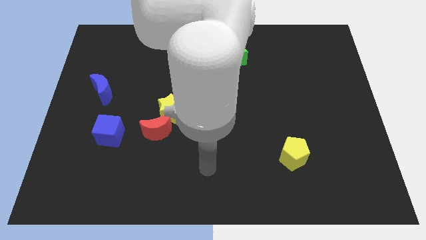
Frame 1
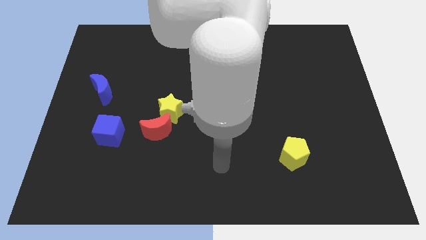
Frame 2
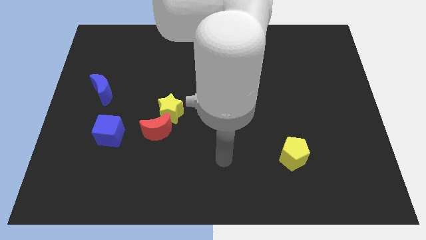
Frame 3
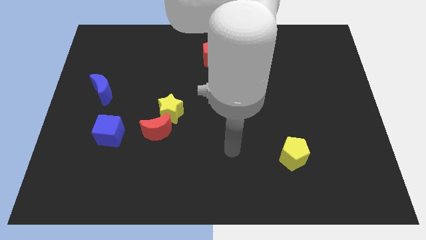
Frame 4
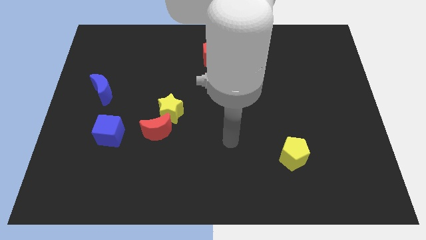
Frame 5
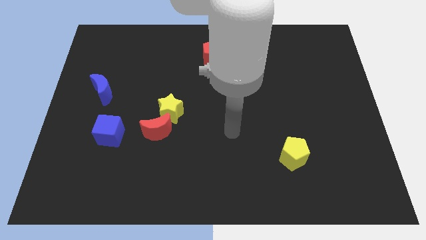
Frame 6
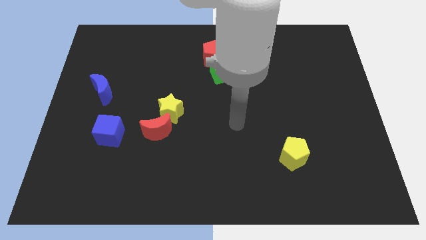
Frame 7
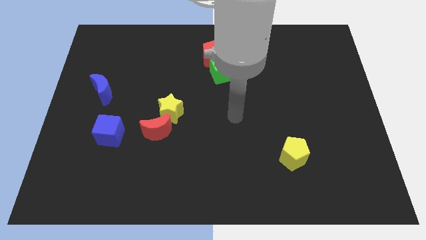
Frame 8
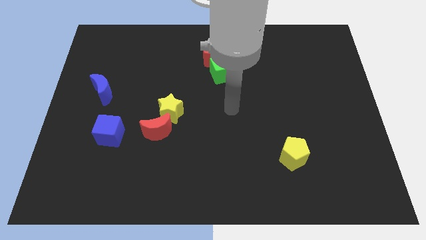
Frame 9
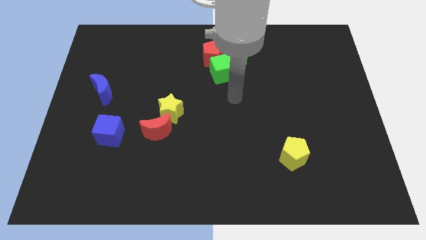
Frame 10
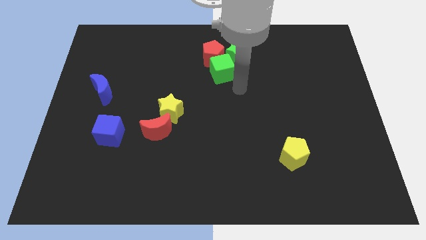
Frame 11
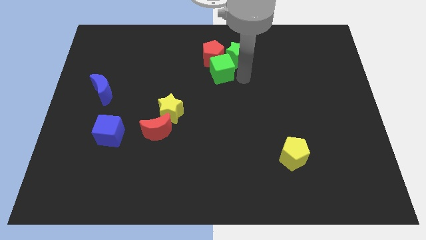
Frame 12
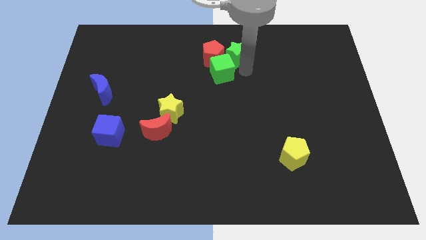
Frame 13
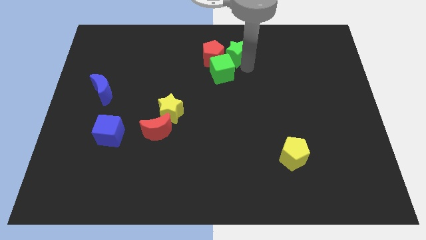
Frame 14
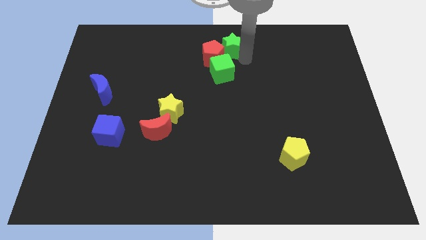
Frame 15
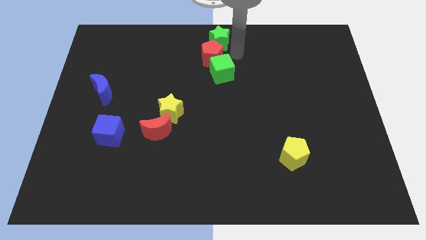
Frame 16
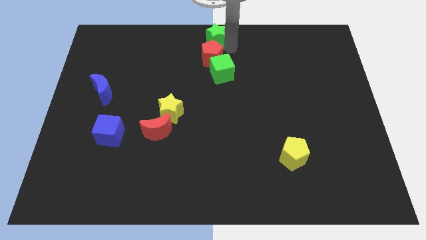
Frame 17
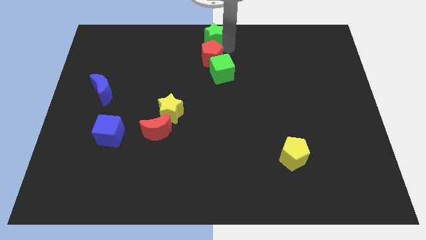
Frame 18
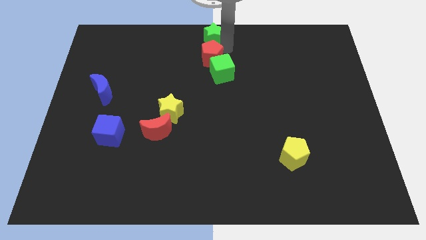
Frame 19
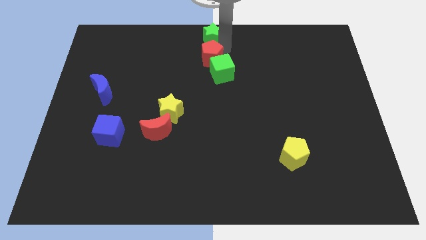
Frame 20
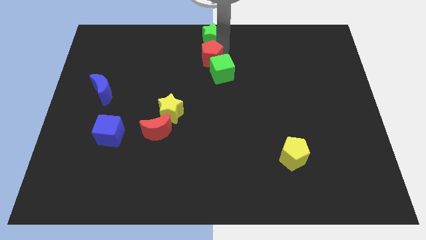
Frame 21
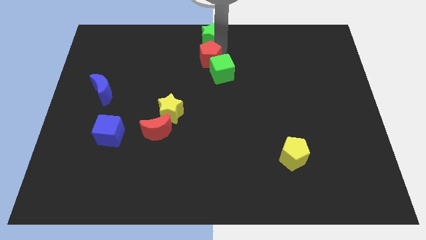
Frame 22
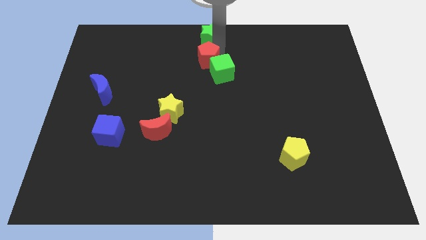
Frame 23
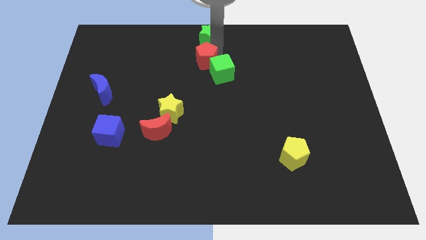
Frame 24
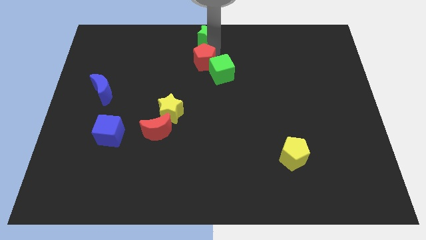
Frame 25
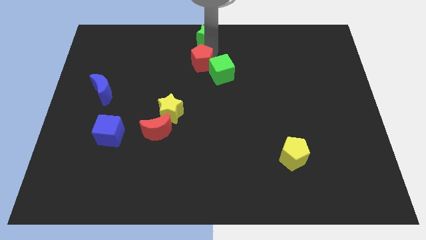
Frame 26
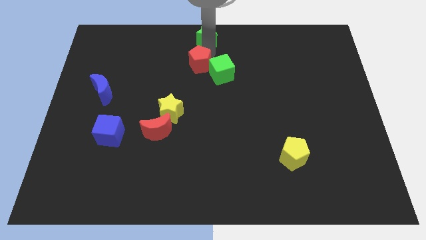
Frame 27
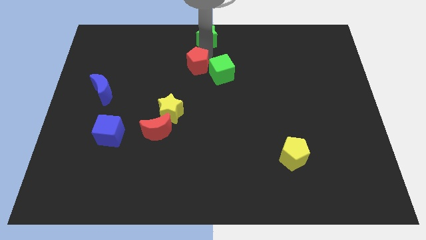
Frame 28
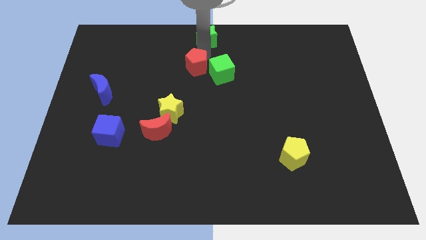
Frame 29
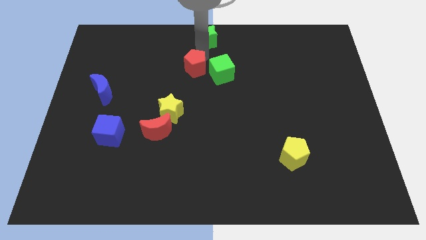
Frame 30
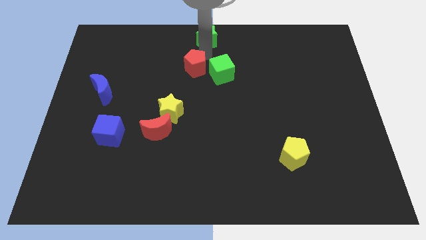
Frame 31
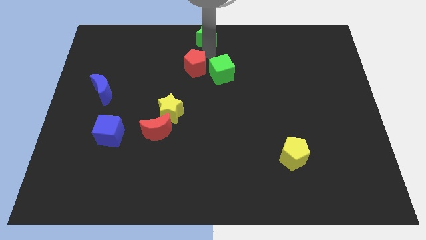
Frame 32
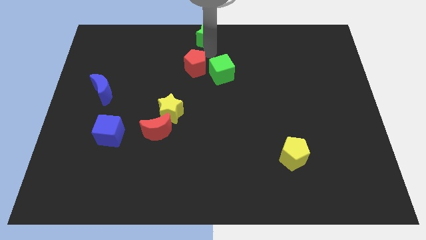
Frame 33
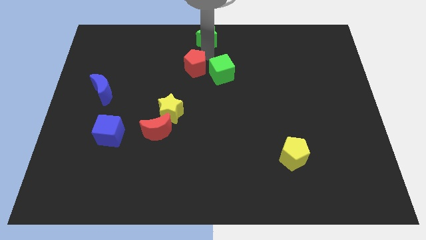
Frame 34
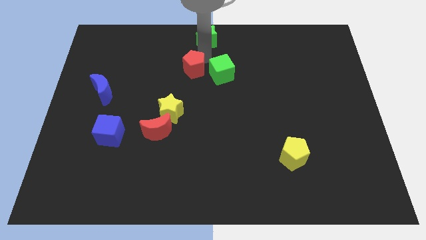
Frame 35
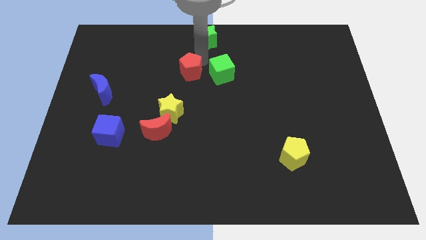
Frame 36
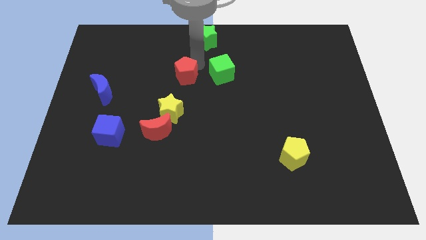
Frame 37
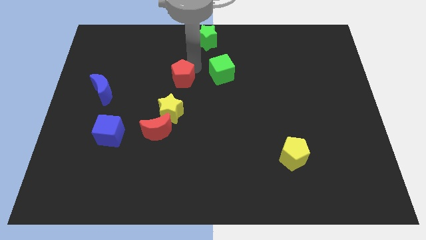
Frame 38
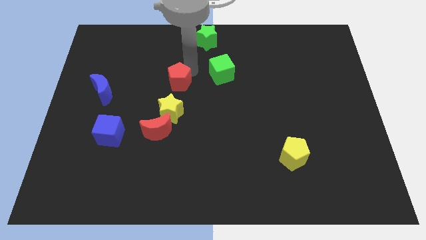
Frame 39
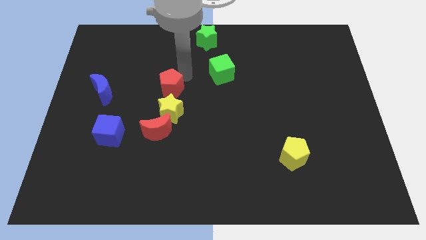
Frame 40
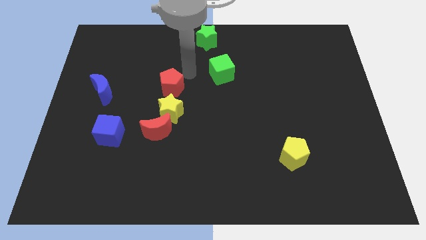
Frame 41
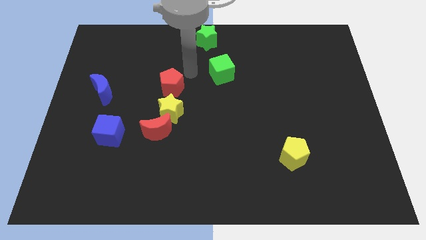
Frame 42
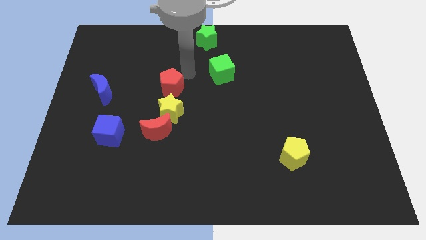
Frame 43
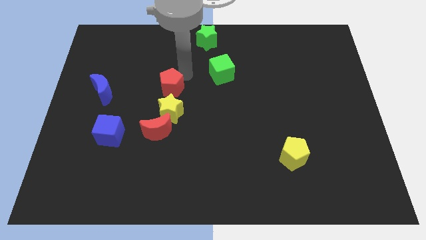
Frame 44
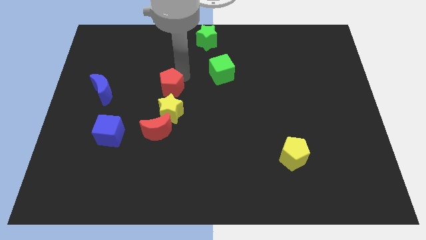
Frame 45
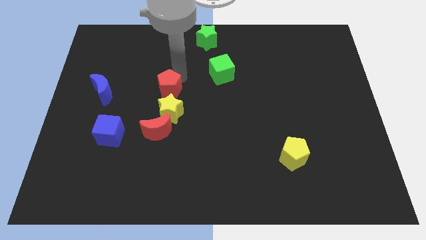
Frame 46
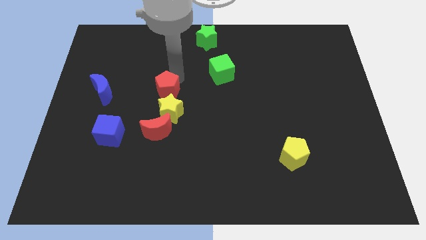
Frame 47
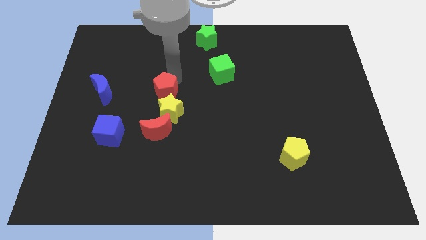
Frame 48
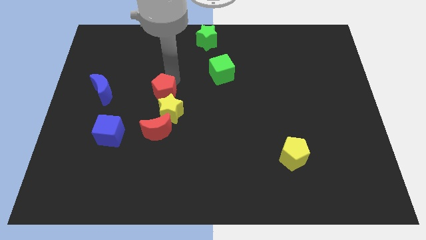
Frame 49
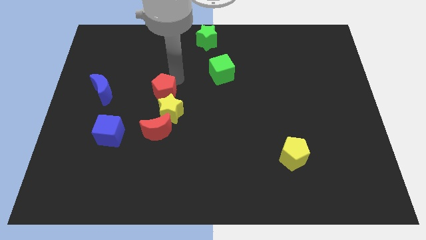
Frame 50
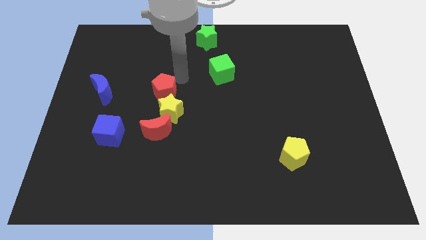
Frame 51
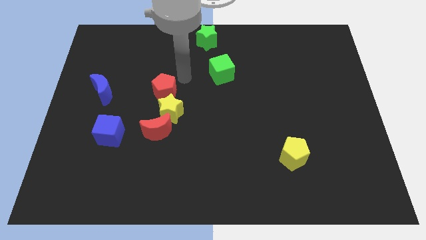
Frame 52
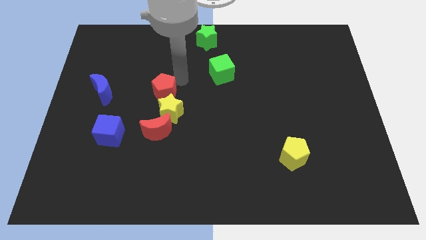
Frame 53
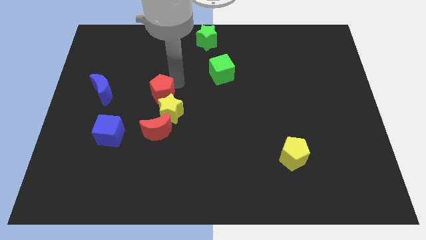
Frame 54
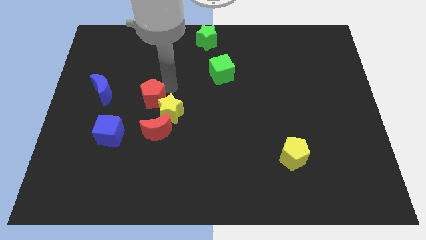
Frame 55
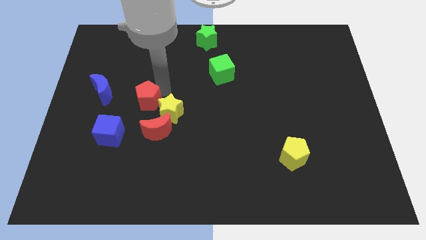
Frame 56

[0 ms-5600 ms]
push the red pentagon to the top left side of the red moon

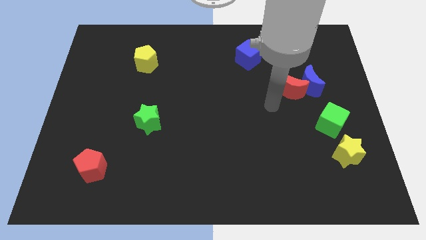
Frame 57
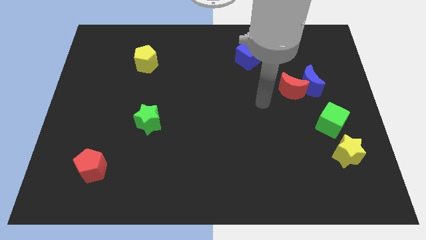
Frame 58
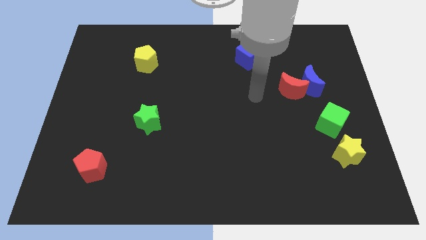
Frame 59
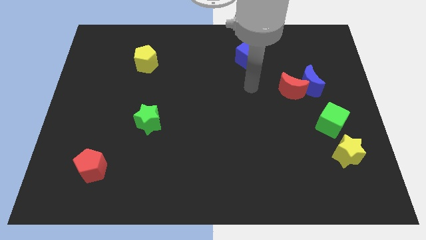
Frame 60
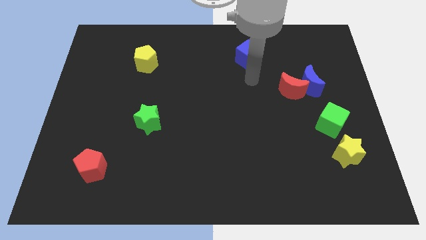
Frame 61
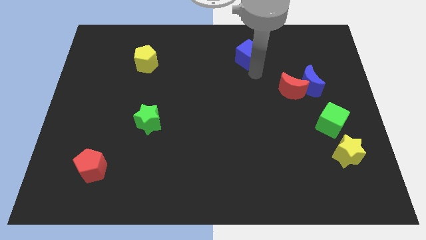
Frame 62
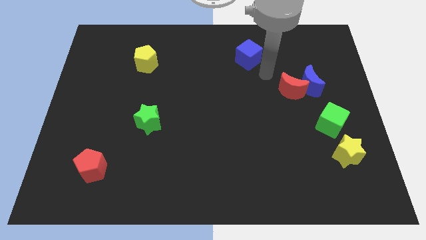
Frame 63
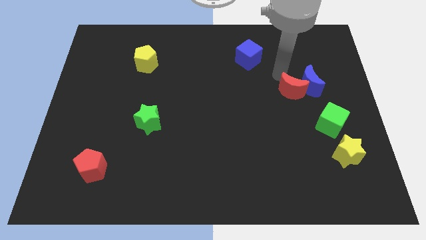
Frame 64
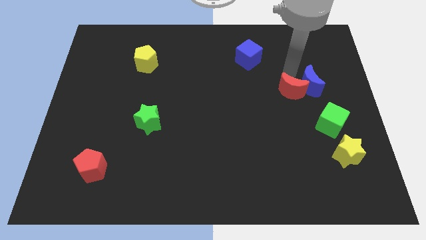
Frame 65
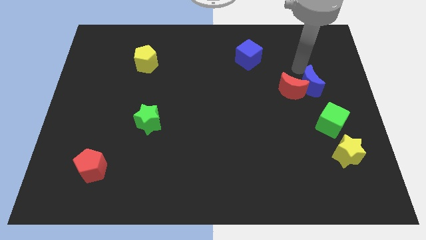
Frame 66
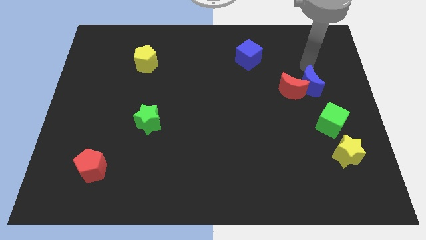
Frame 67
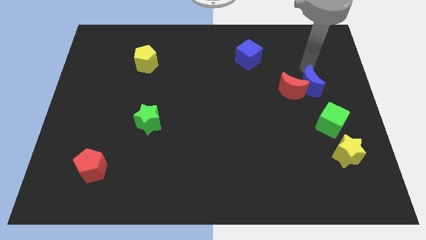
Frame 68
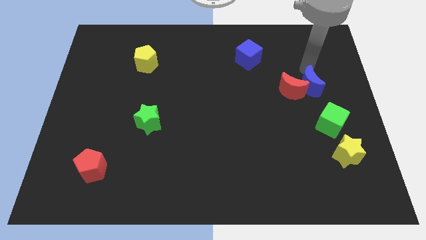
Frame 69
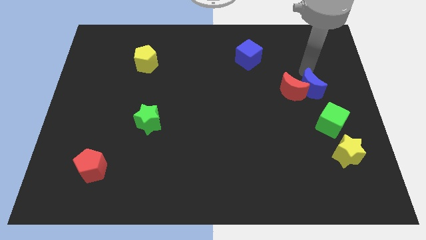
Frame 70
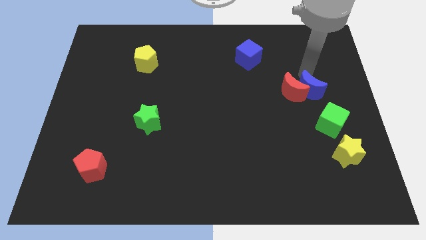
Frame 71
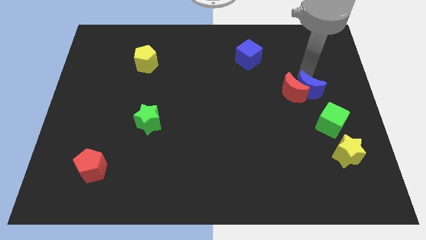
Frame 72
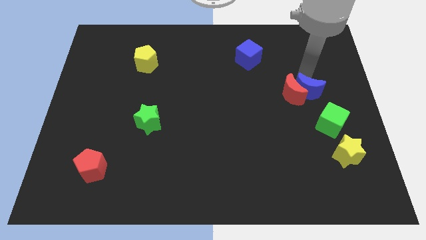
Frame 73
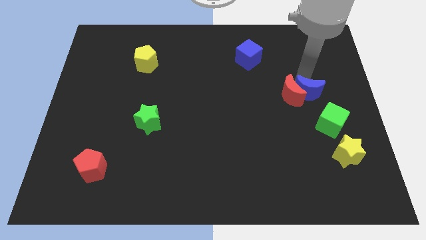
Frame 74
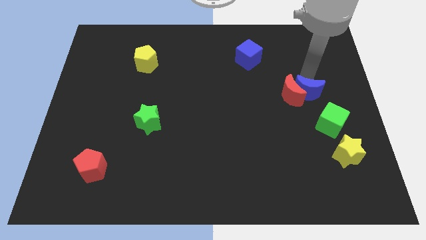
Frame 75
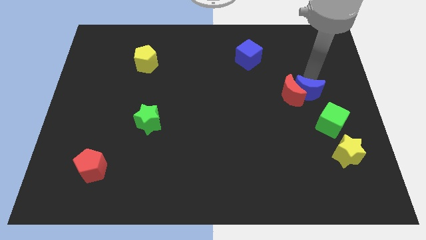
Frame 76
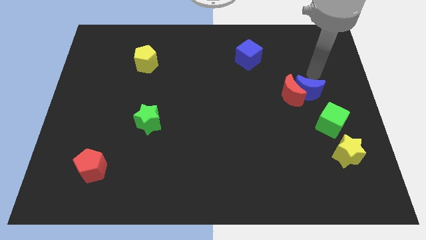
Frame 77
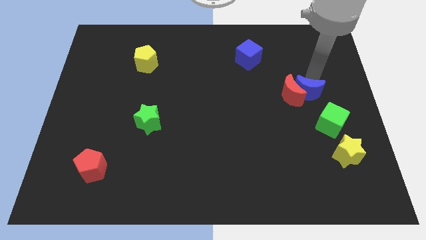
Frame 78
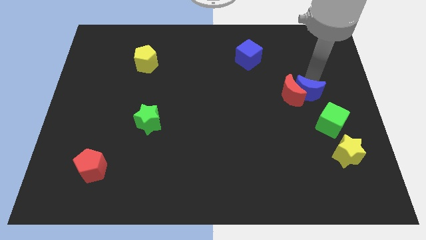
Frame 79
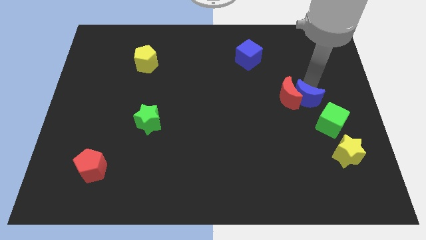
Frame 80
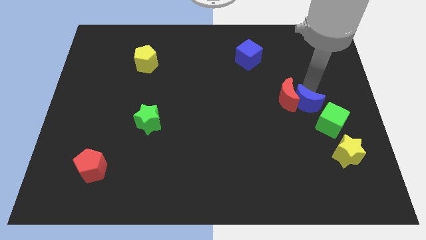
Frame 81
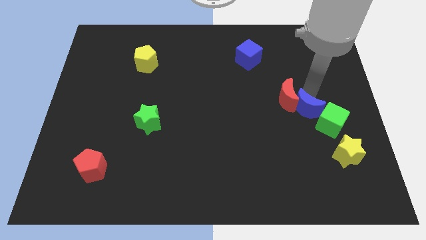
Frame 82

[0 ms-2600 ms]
slide the blue moon just left of the green cube
